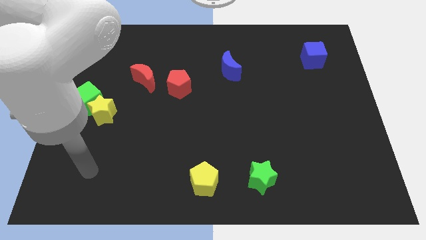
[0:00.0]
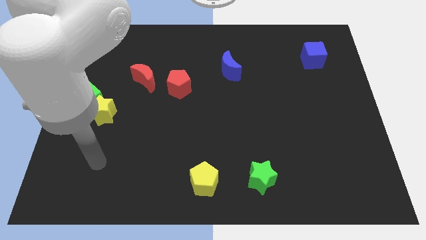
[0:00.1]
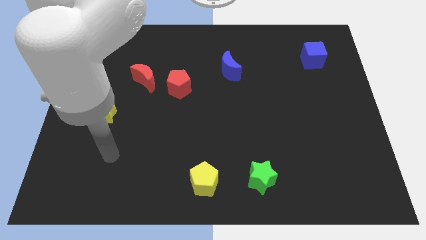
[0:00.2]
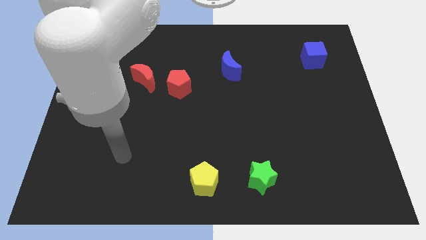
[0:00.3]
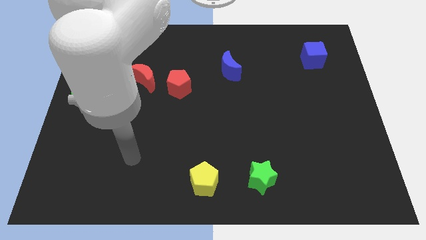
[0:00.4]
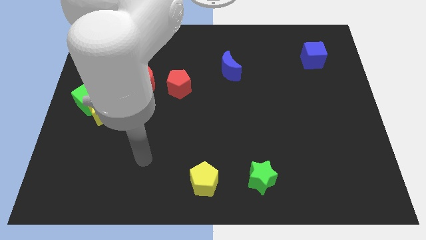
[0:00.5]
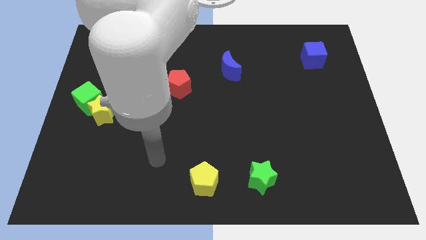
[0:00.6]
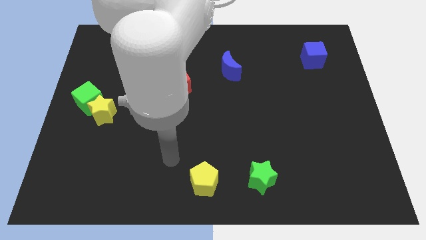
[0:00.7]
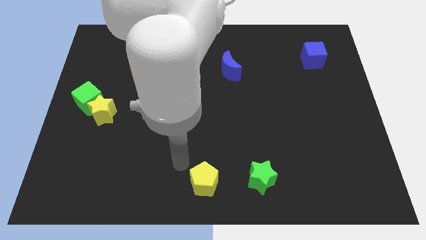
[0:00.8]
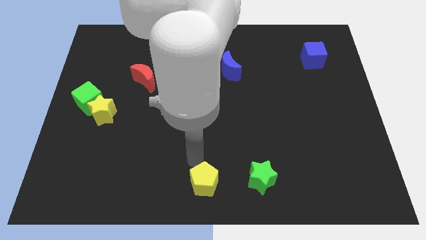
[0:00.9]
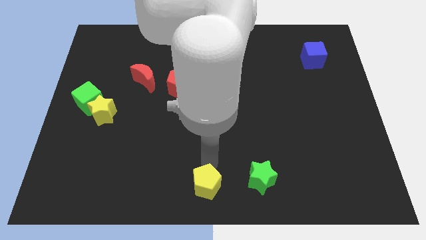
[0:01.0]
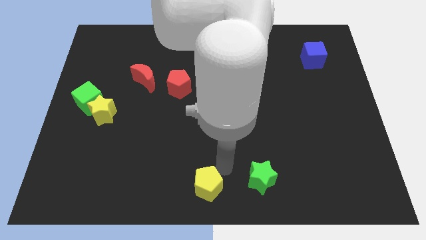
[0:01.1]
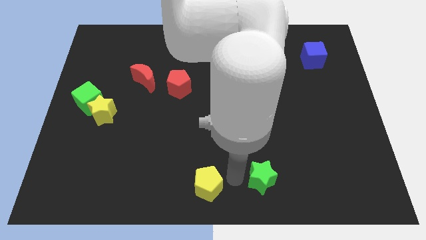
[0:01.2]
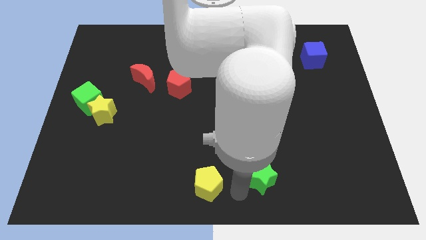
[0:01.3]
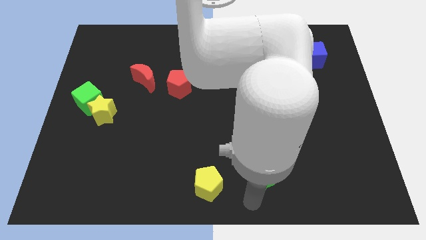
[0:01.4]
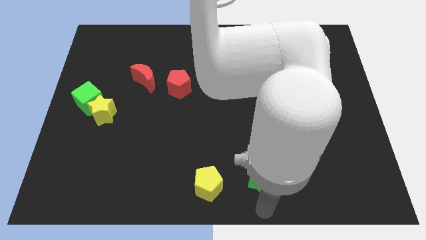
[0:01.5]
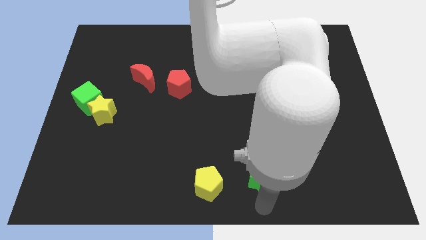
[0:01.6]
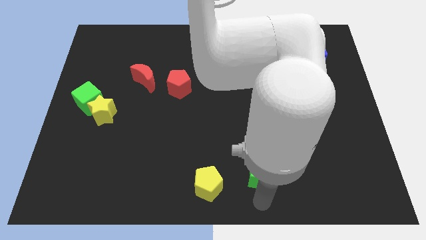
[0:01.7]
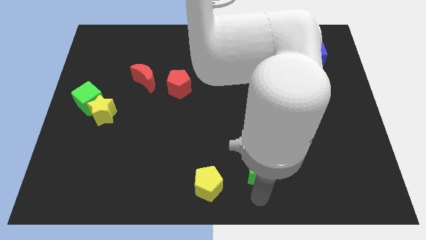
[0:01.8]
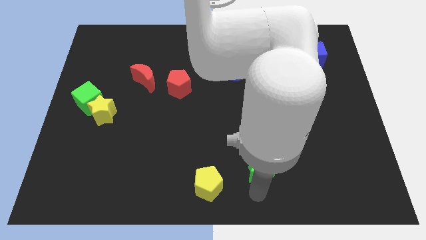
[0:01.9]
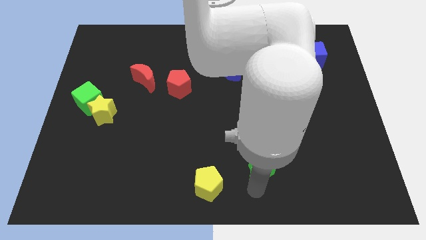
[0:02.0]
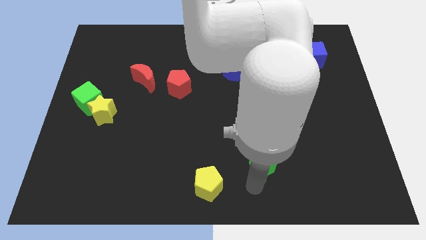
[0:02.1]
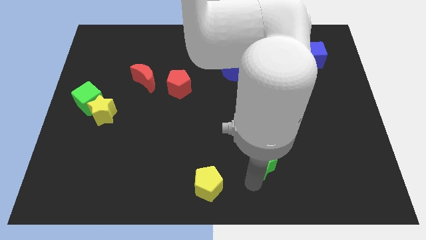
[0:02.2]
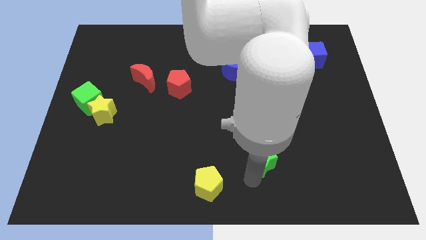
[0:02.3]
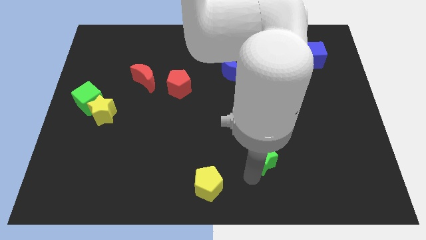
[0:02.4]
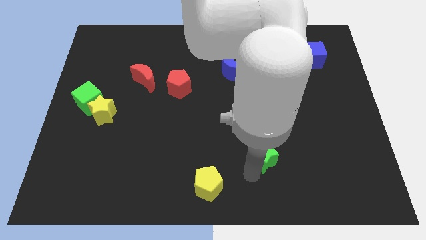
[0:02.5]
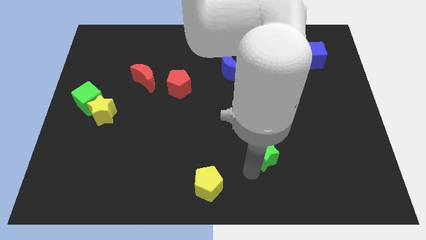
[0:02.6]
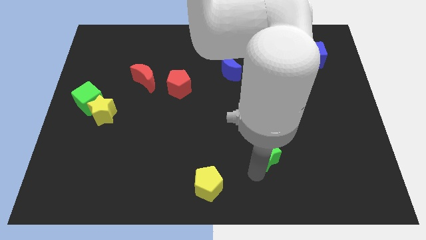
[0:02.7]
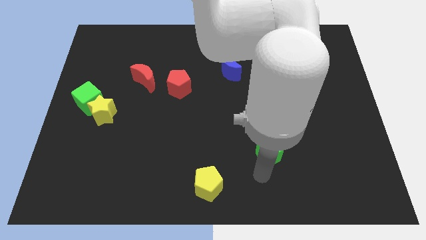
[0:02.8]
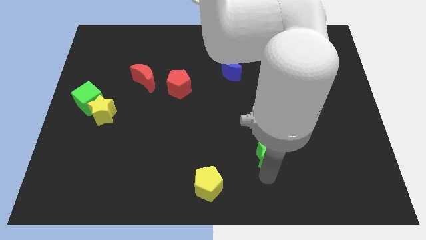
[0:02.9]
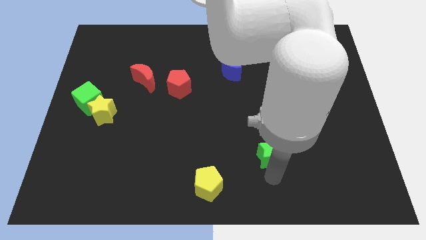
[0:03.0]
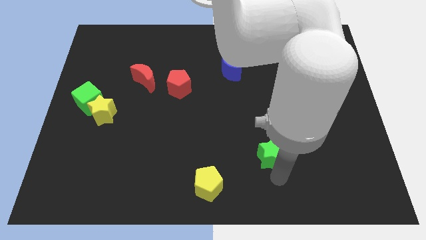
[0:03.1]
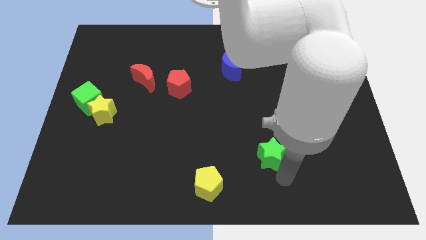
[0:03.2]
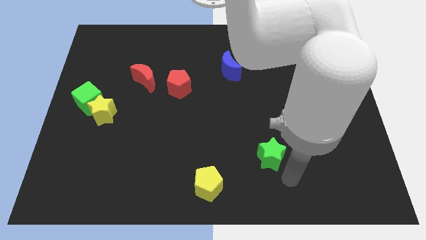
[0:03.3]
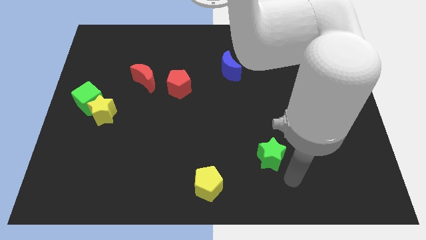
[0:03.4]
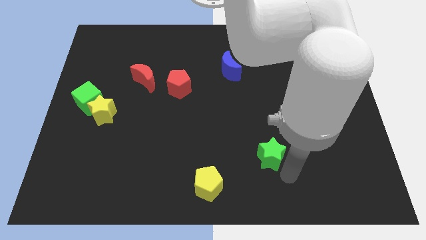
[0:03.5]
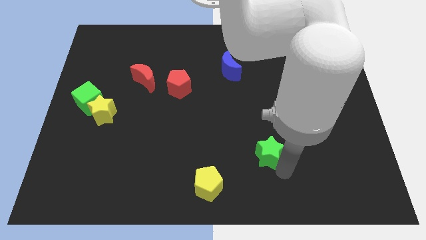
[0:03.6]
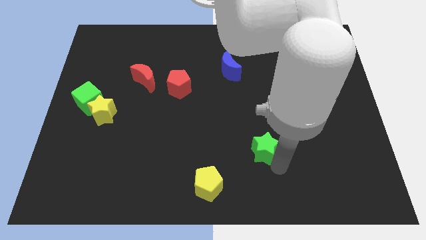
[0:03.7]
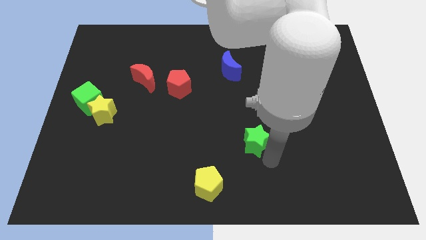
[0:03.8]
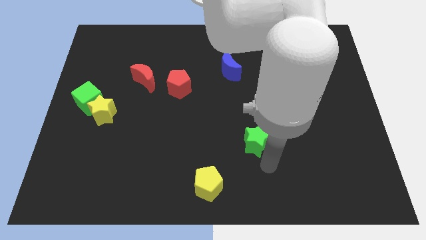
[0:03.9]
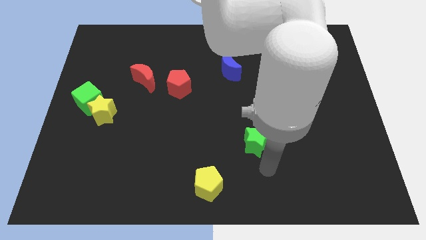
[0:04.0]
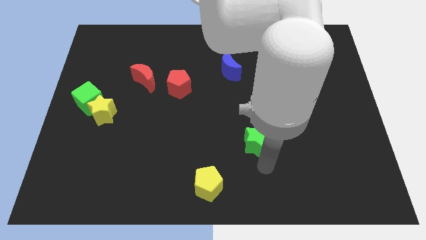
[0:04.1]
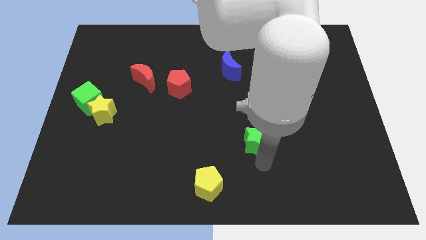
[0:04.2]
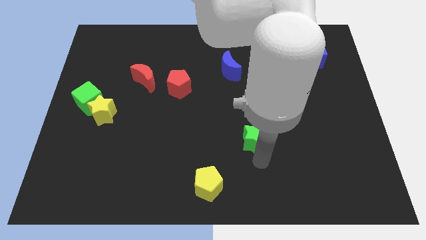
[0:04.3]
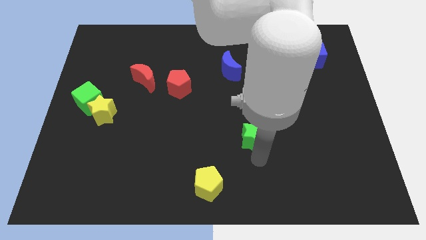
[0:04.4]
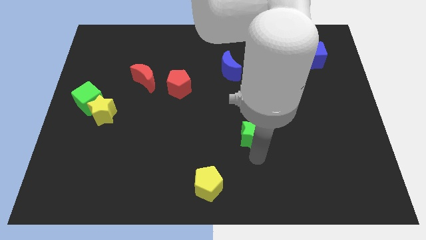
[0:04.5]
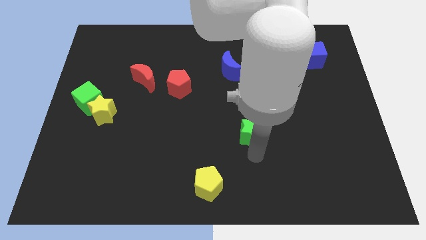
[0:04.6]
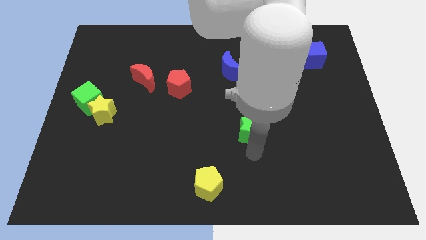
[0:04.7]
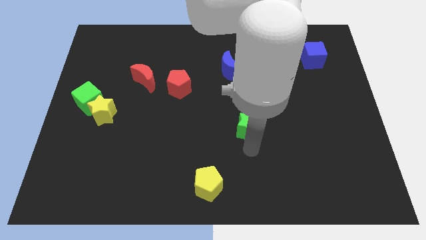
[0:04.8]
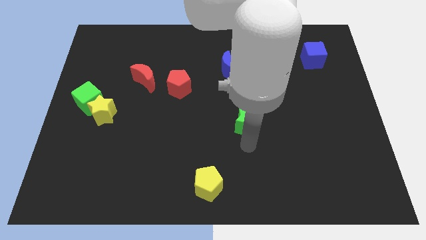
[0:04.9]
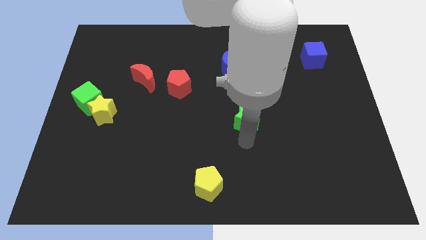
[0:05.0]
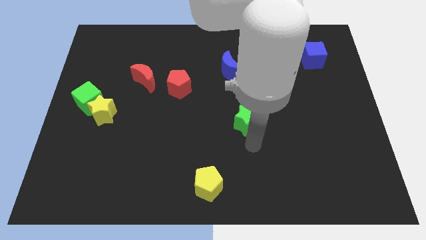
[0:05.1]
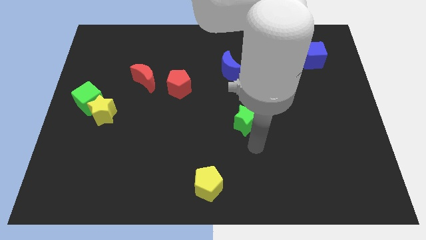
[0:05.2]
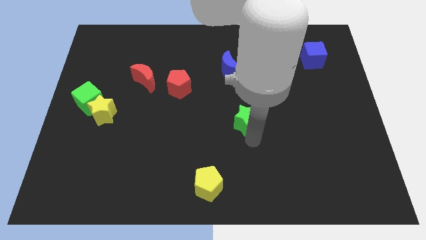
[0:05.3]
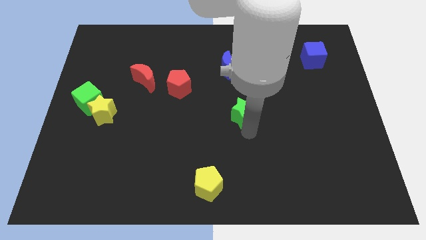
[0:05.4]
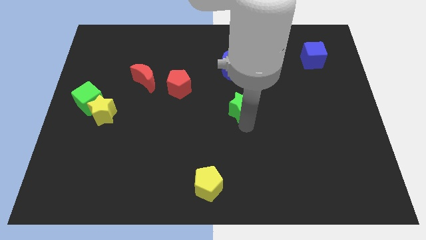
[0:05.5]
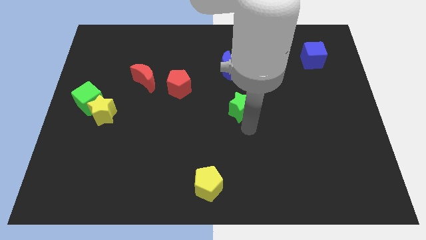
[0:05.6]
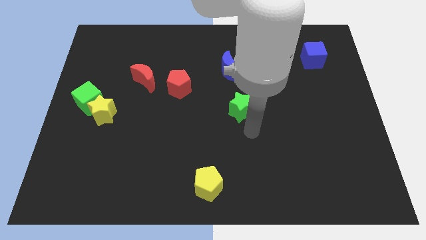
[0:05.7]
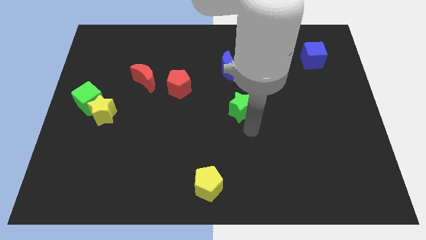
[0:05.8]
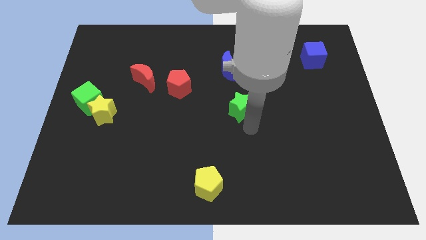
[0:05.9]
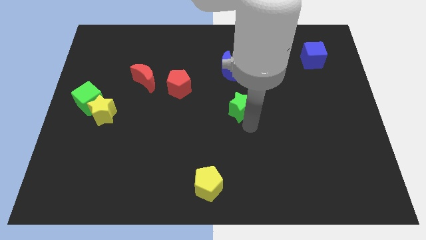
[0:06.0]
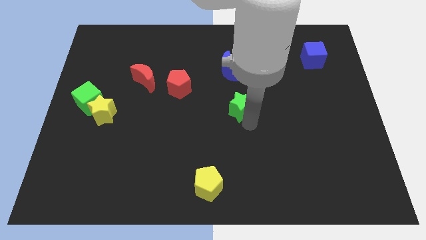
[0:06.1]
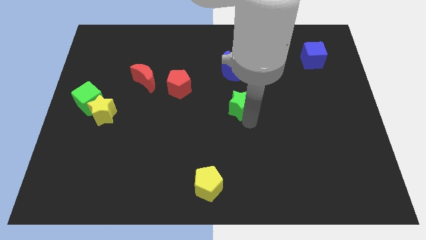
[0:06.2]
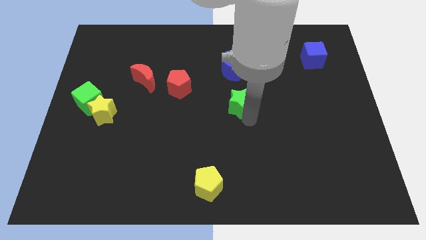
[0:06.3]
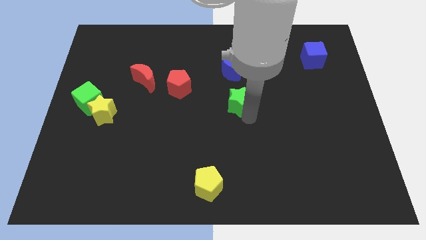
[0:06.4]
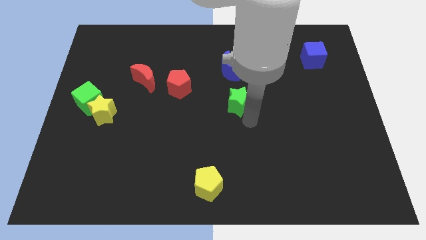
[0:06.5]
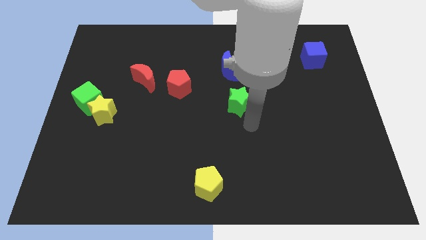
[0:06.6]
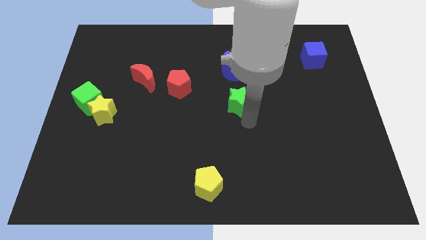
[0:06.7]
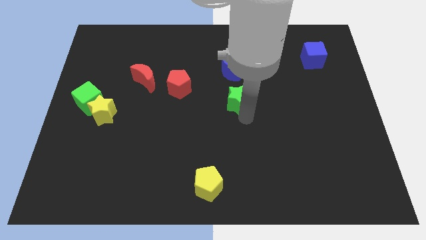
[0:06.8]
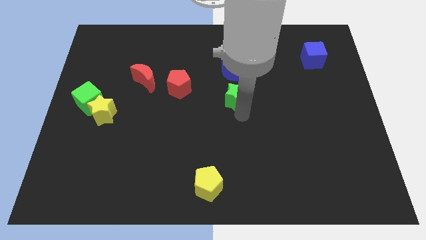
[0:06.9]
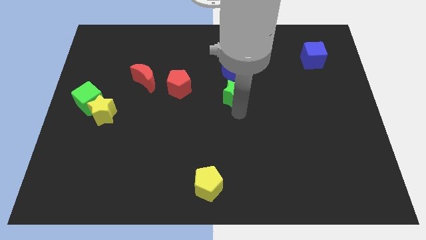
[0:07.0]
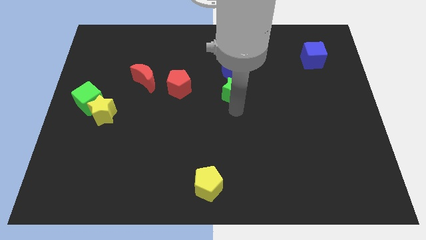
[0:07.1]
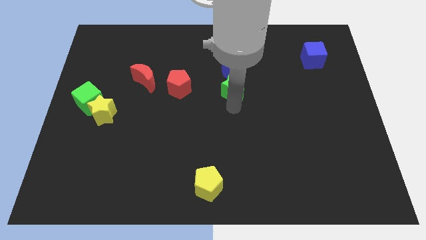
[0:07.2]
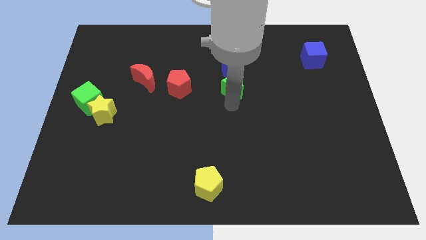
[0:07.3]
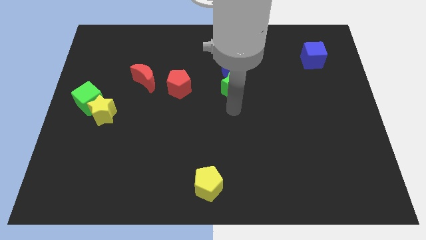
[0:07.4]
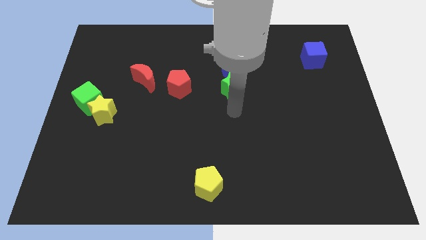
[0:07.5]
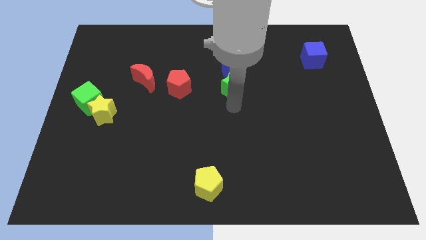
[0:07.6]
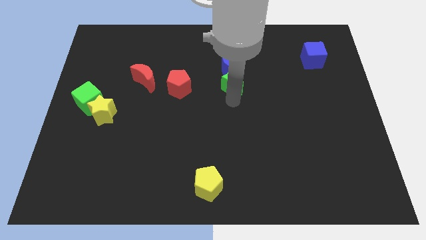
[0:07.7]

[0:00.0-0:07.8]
slide the green star next to the blue moon
